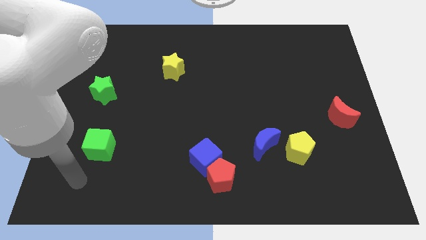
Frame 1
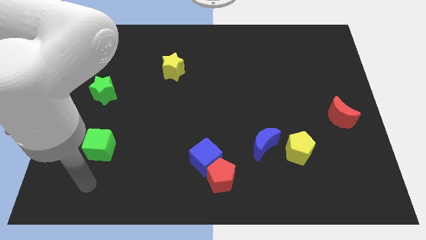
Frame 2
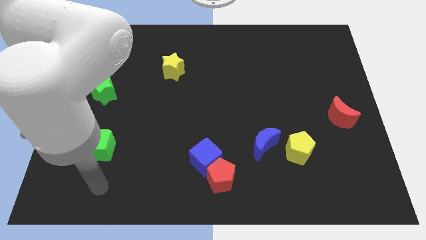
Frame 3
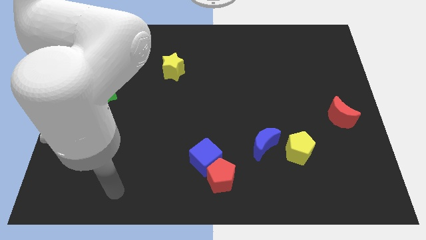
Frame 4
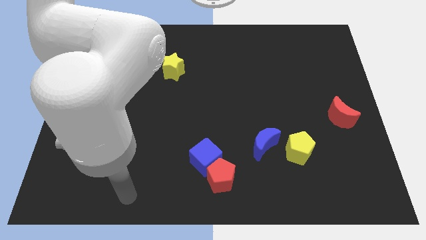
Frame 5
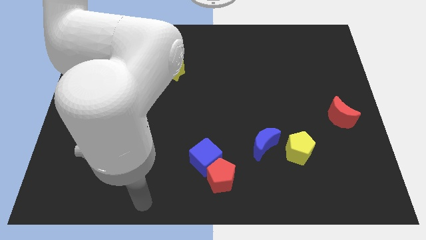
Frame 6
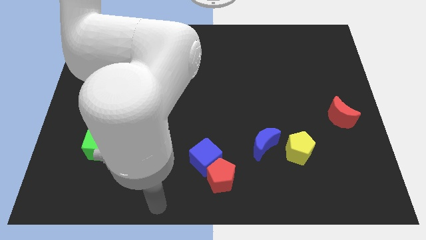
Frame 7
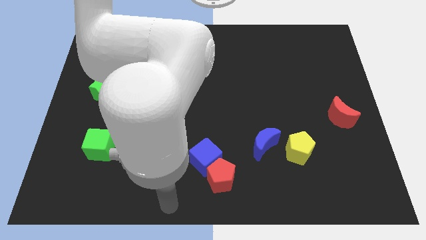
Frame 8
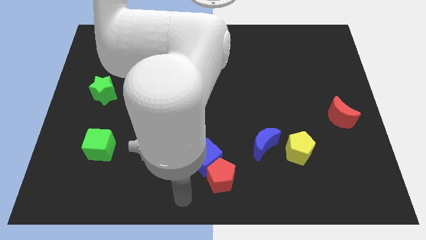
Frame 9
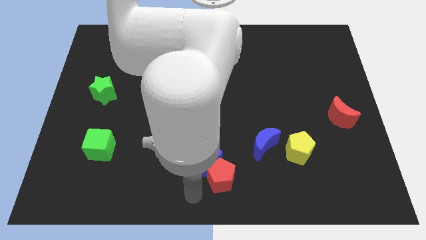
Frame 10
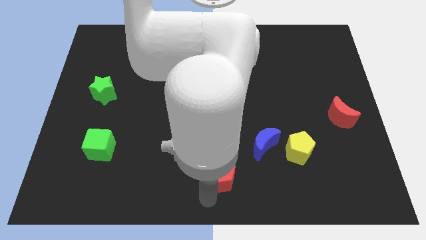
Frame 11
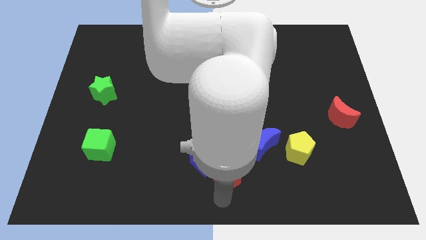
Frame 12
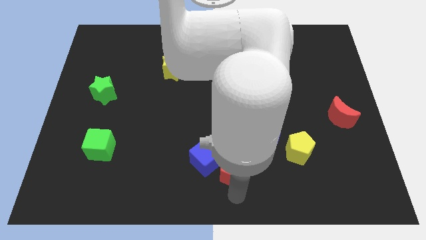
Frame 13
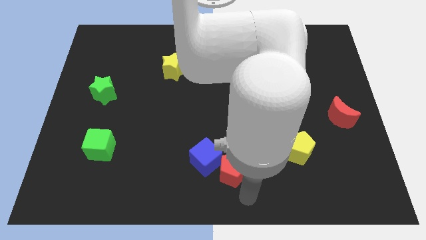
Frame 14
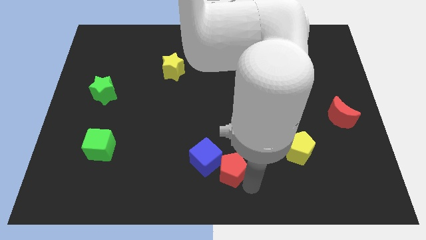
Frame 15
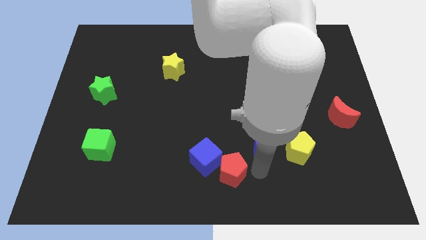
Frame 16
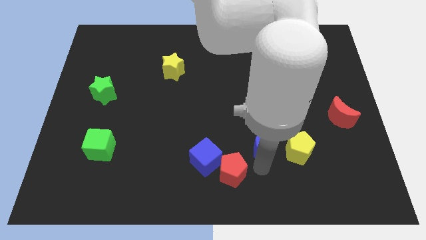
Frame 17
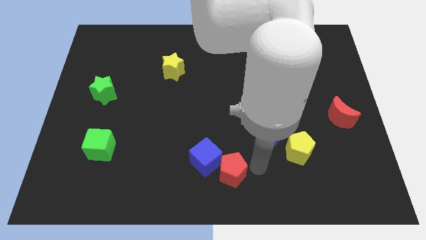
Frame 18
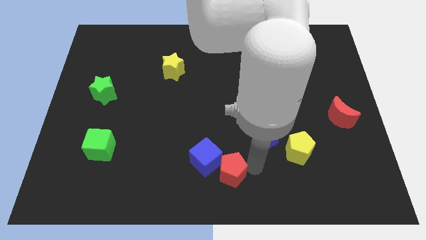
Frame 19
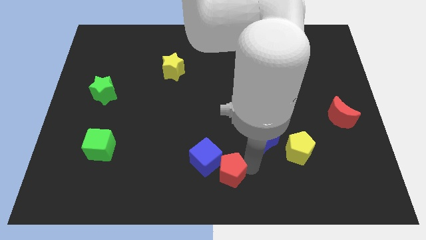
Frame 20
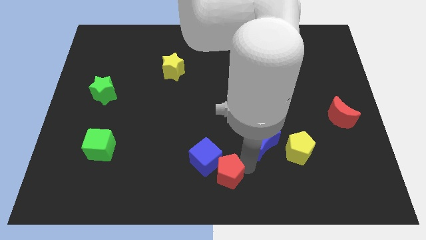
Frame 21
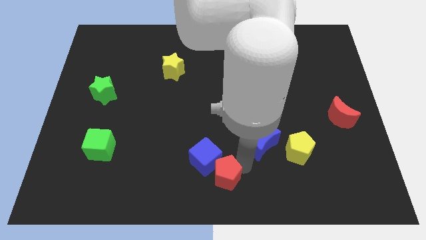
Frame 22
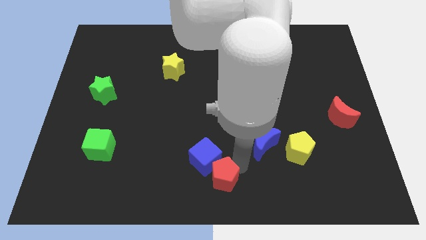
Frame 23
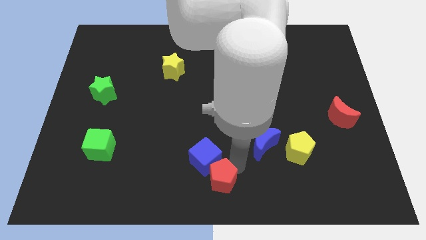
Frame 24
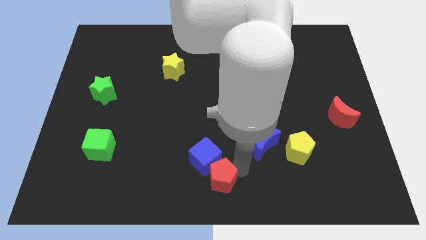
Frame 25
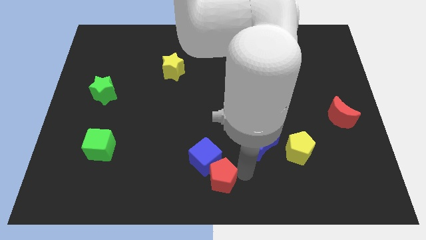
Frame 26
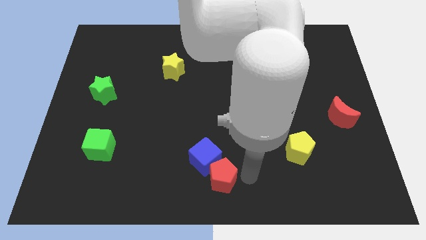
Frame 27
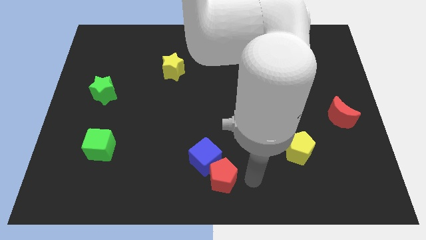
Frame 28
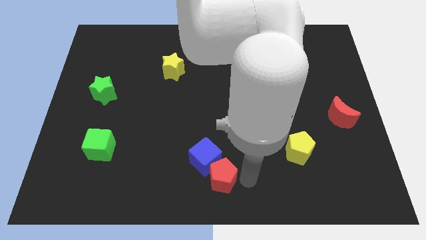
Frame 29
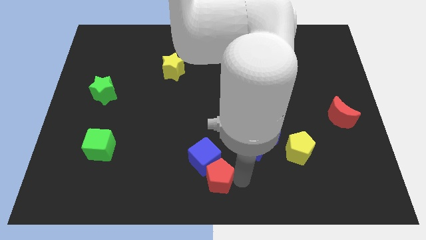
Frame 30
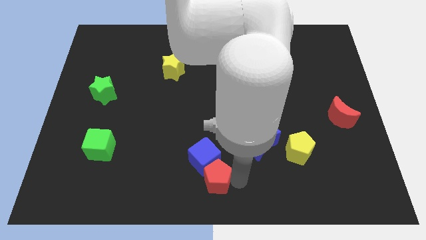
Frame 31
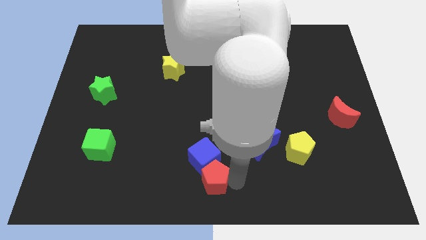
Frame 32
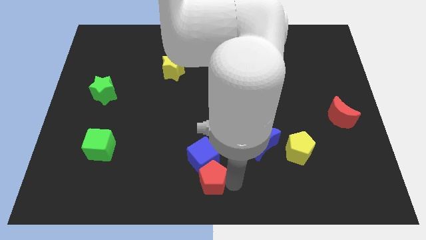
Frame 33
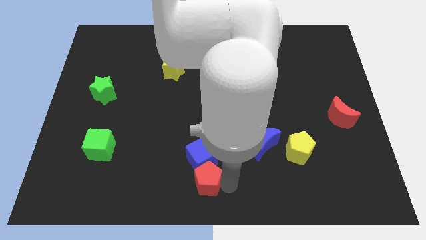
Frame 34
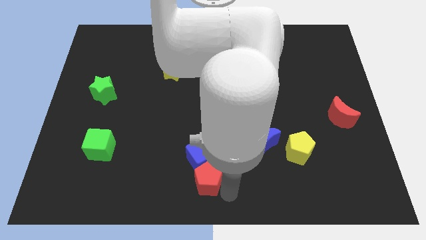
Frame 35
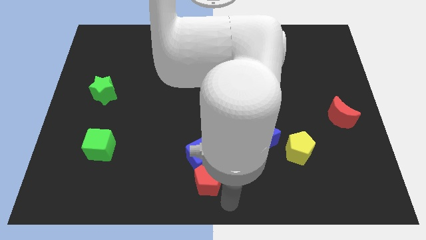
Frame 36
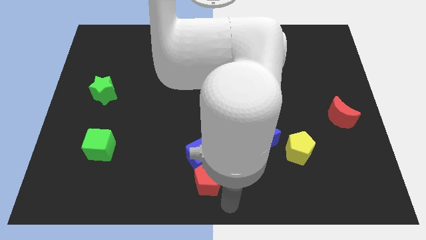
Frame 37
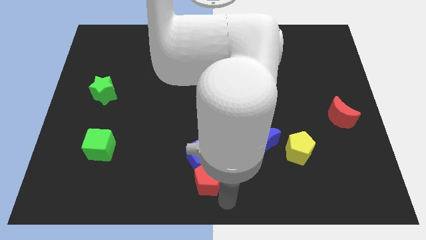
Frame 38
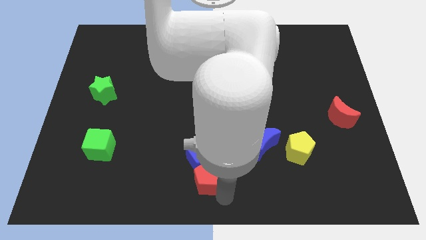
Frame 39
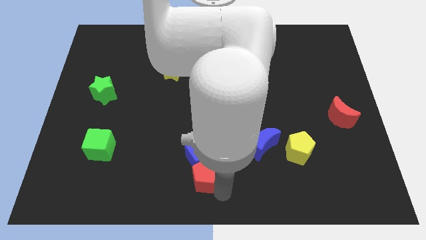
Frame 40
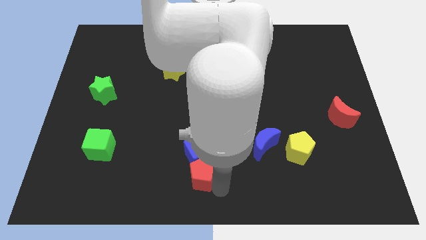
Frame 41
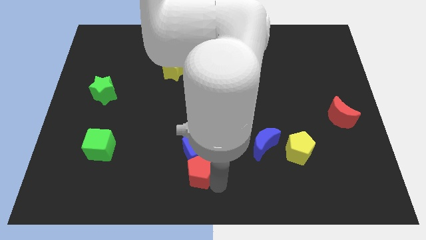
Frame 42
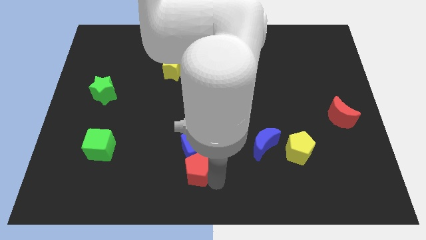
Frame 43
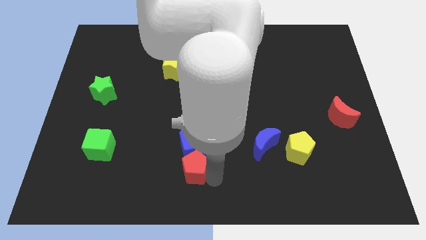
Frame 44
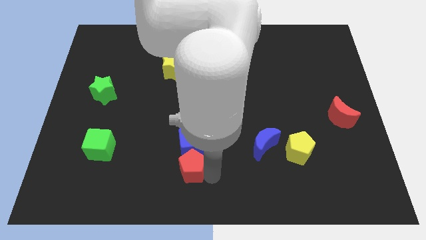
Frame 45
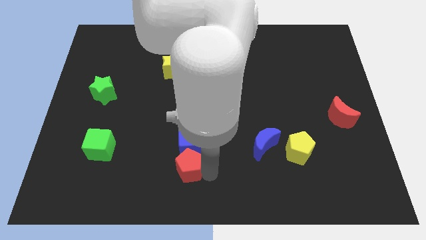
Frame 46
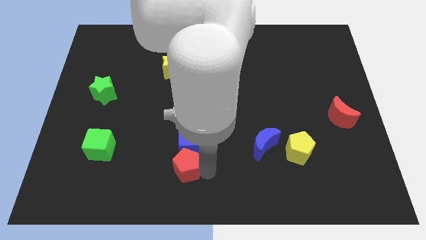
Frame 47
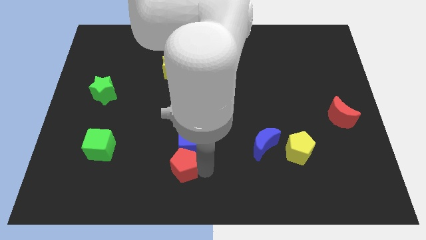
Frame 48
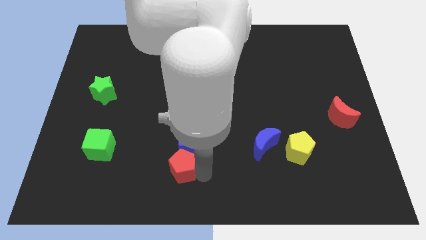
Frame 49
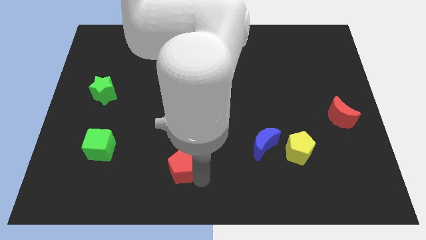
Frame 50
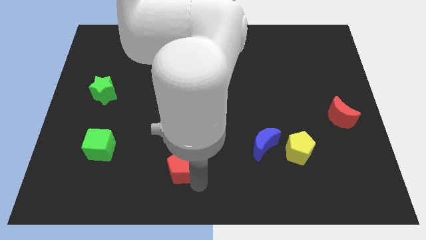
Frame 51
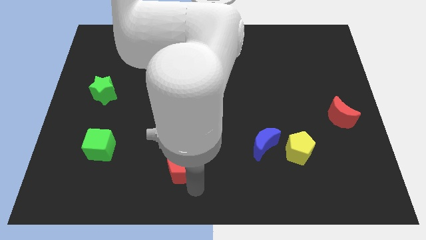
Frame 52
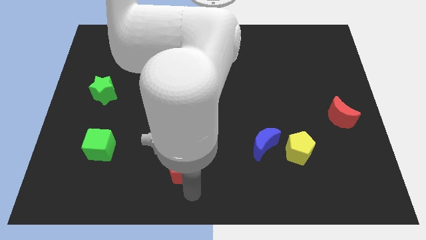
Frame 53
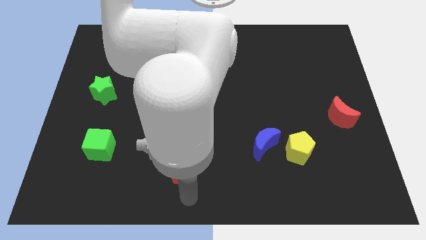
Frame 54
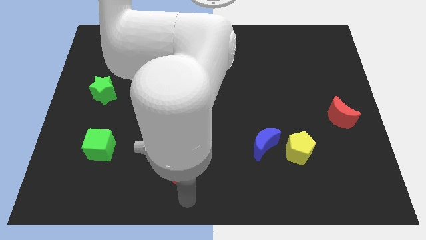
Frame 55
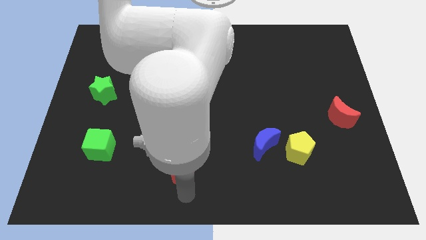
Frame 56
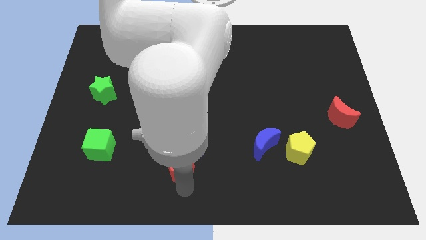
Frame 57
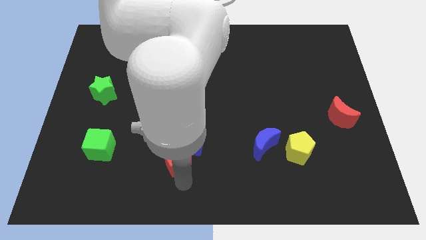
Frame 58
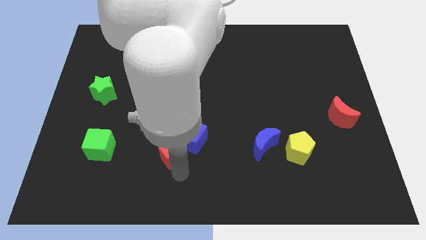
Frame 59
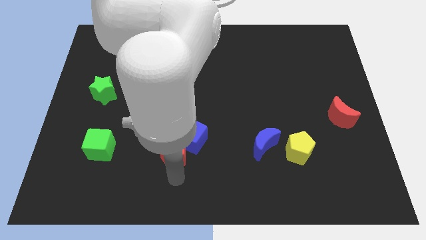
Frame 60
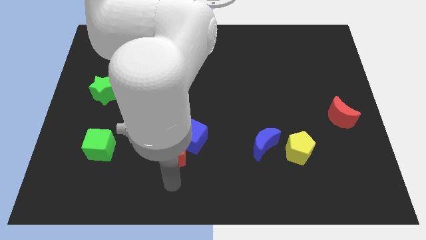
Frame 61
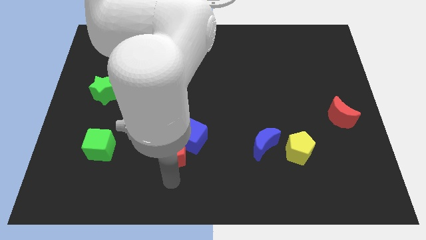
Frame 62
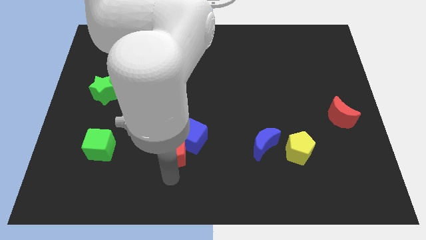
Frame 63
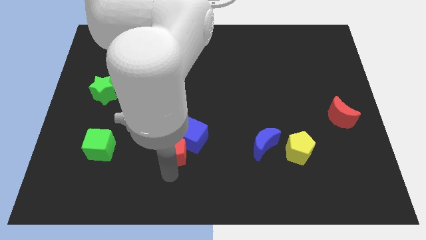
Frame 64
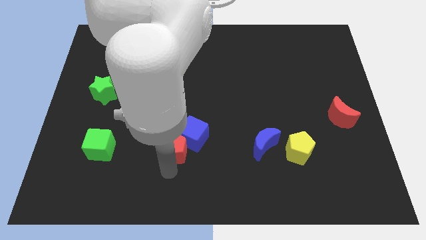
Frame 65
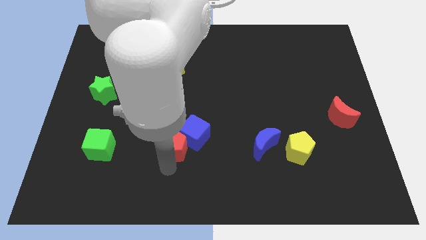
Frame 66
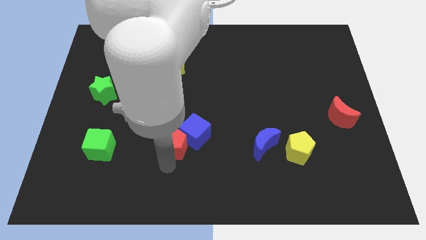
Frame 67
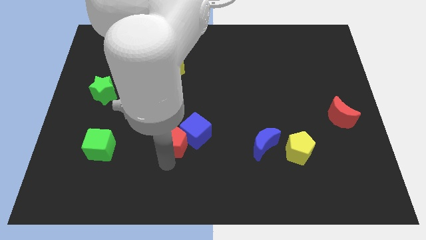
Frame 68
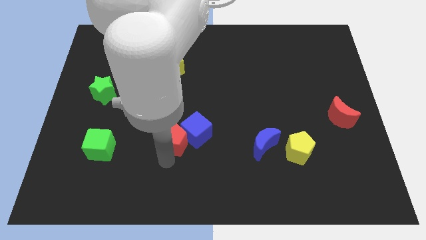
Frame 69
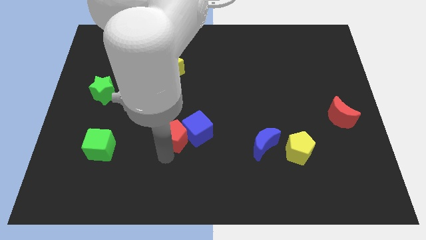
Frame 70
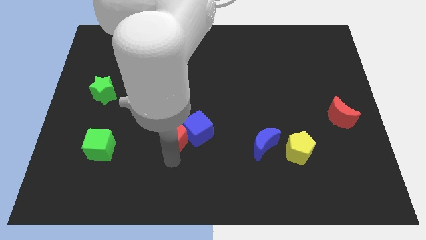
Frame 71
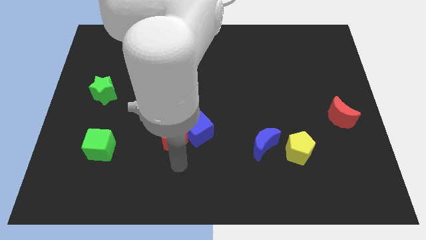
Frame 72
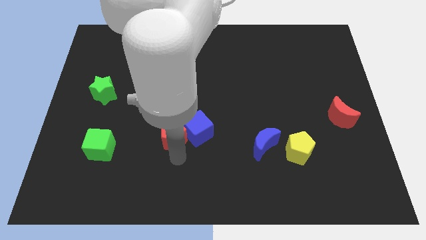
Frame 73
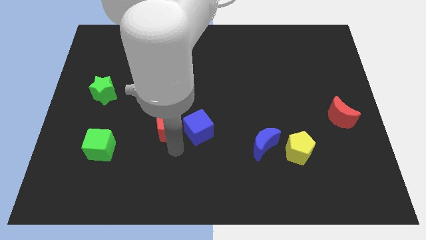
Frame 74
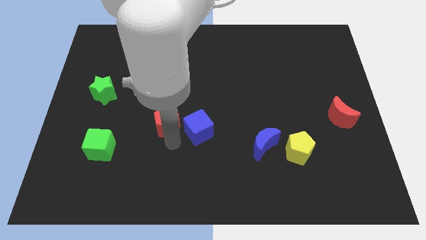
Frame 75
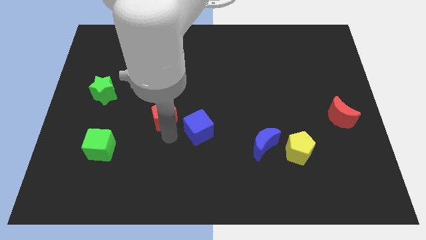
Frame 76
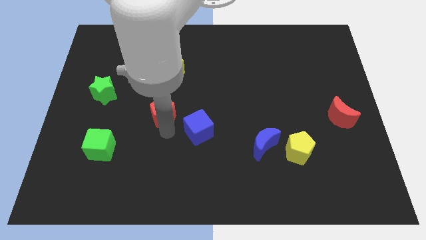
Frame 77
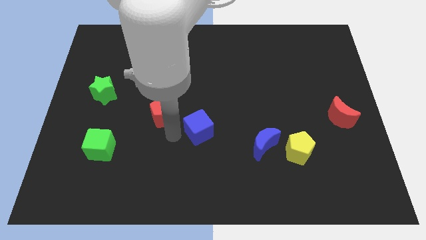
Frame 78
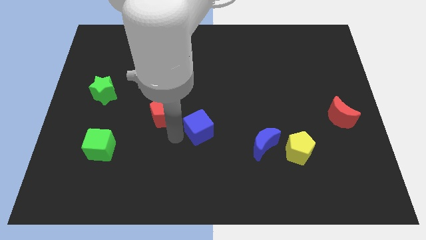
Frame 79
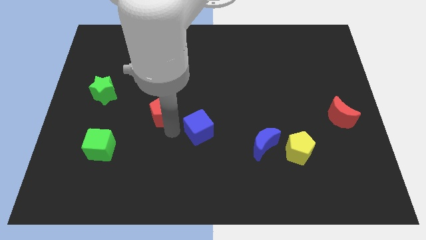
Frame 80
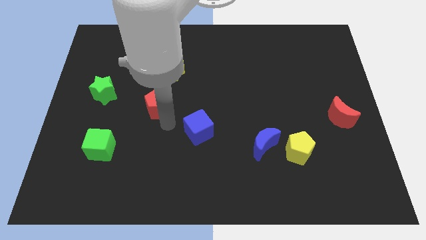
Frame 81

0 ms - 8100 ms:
push the red pentagon right of the green star
